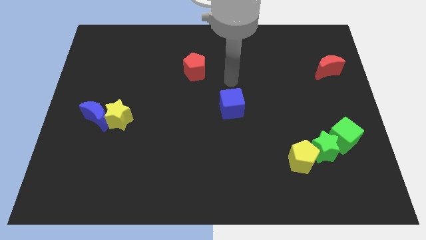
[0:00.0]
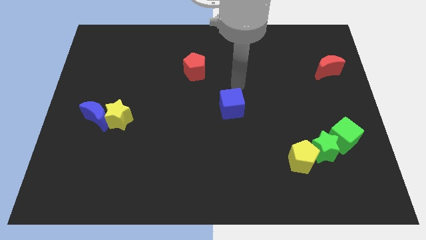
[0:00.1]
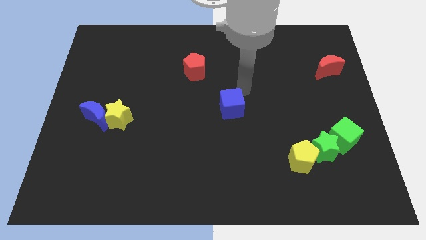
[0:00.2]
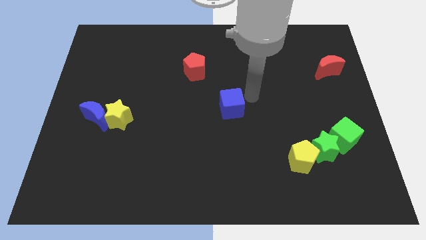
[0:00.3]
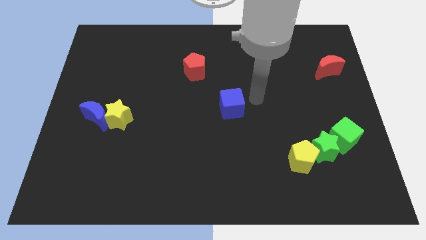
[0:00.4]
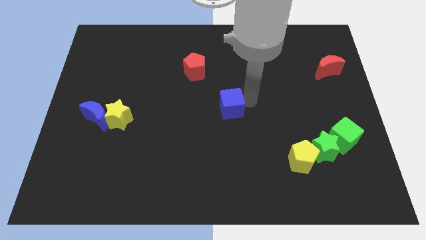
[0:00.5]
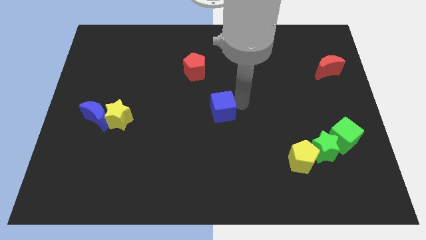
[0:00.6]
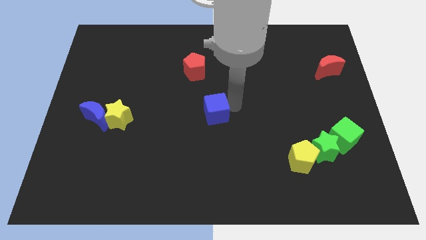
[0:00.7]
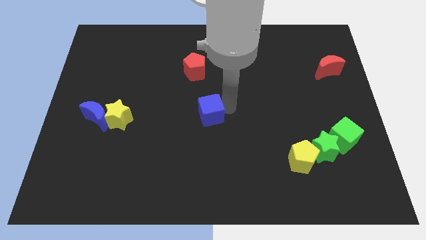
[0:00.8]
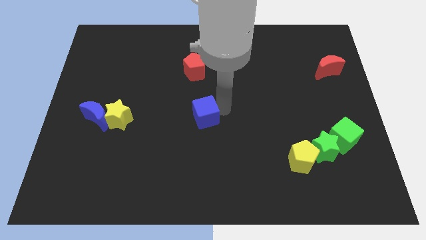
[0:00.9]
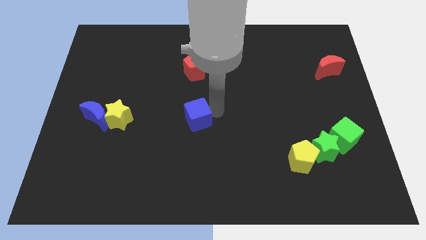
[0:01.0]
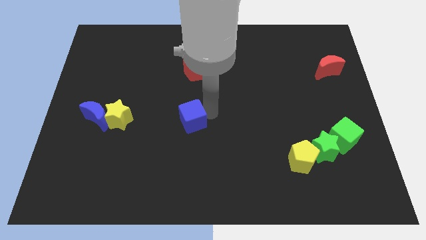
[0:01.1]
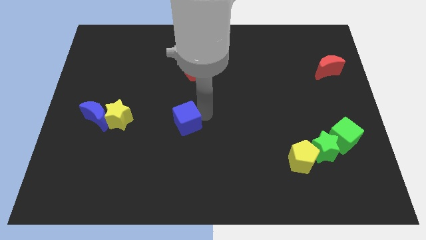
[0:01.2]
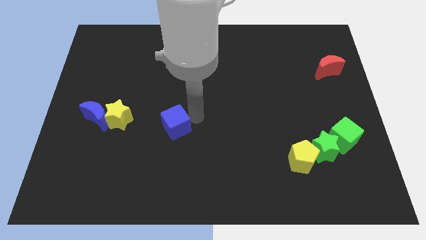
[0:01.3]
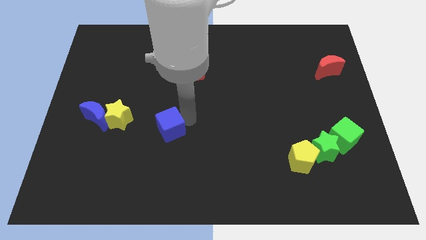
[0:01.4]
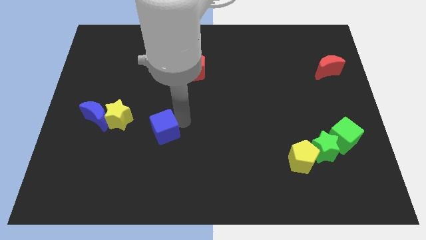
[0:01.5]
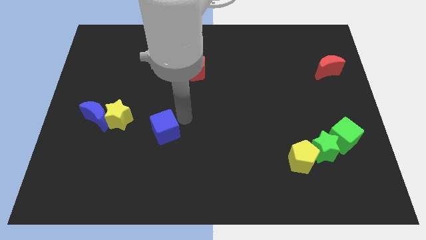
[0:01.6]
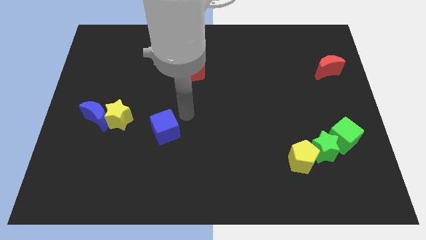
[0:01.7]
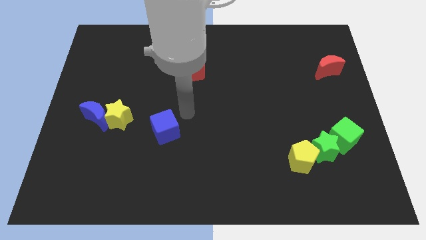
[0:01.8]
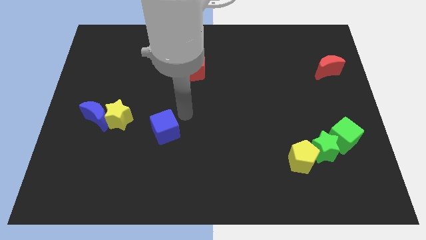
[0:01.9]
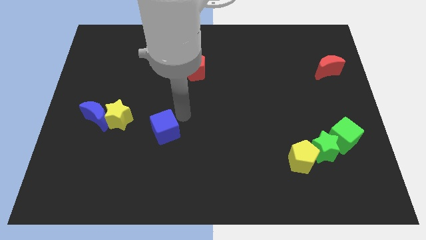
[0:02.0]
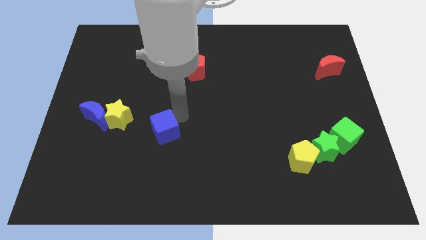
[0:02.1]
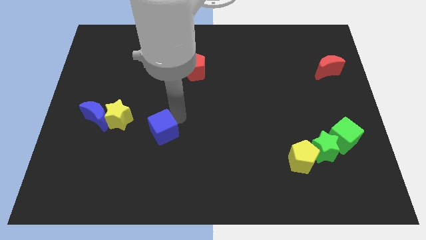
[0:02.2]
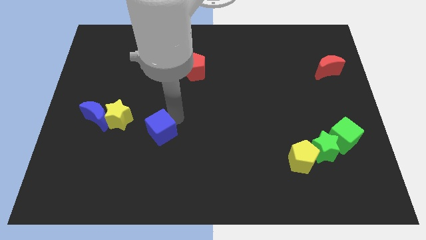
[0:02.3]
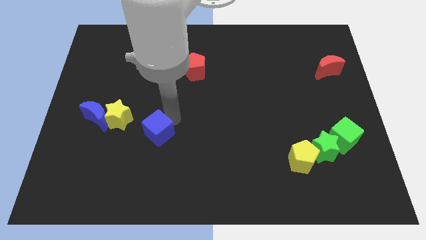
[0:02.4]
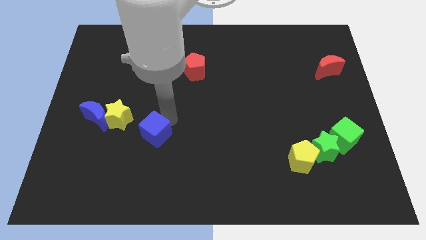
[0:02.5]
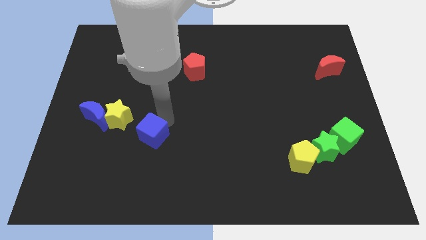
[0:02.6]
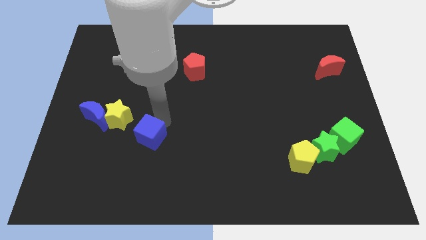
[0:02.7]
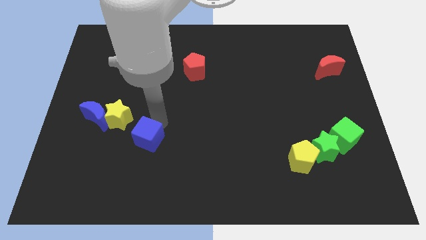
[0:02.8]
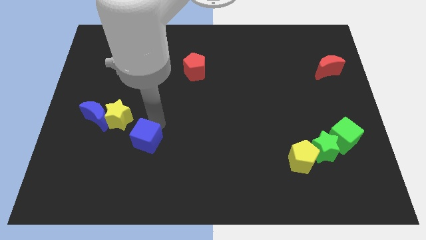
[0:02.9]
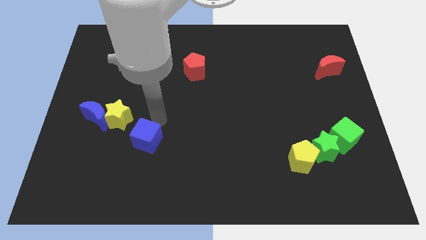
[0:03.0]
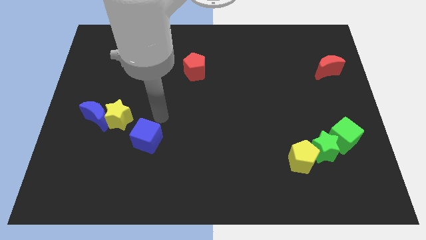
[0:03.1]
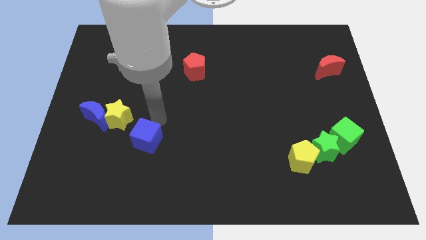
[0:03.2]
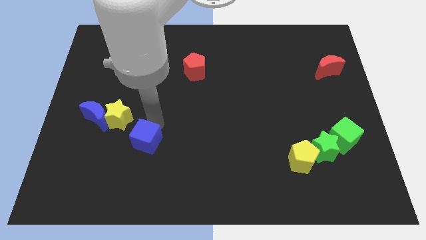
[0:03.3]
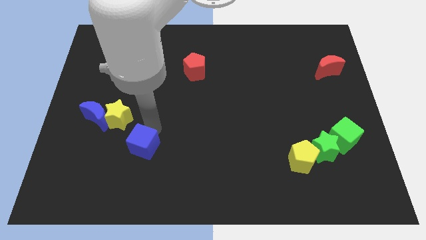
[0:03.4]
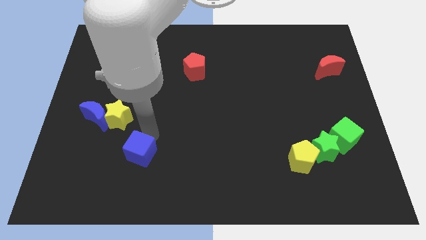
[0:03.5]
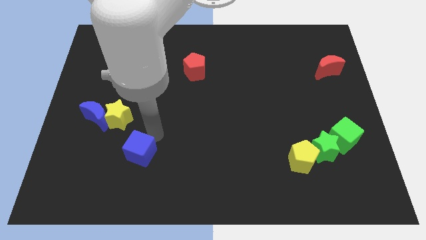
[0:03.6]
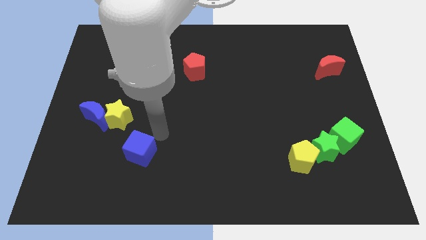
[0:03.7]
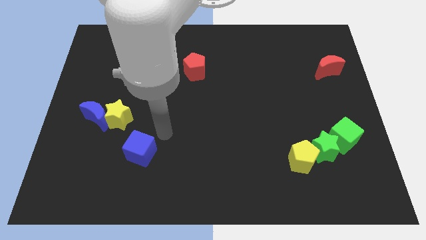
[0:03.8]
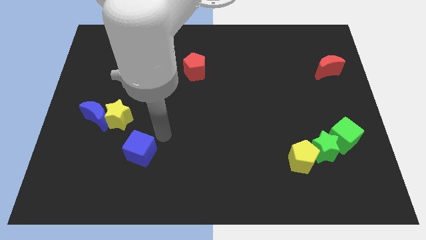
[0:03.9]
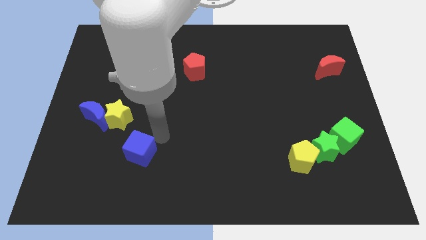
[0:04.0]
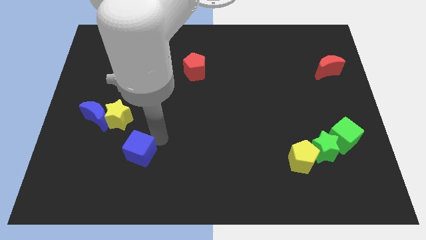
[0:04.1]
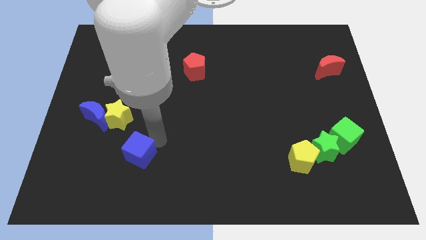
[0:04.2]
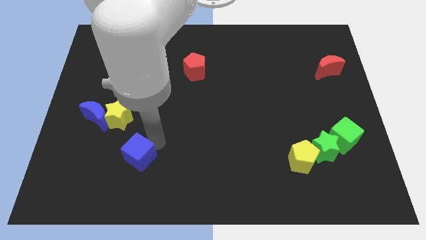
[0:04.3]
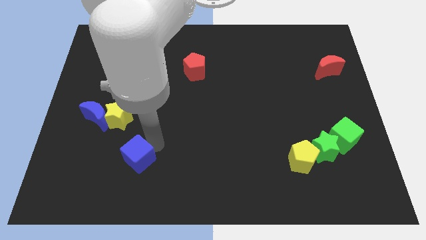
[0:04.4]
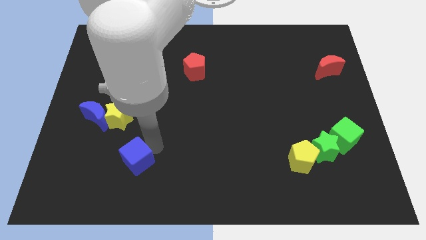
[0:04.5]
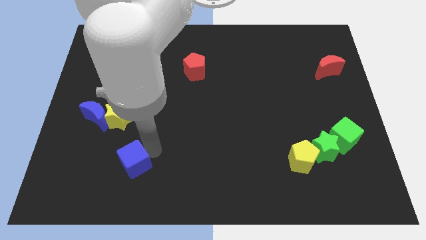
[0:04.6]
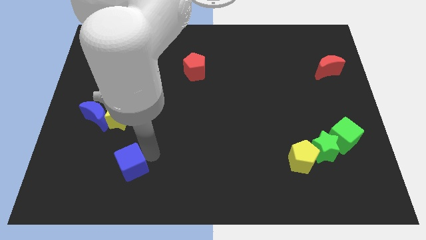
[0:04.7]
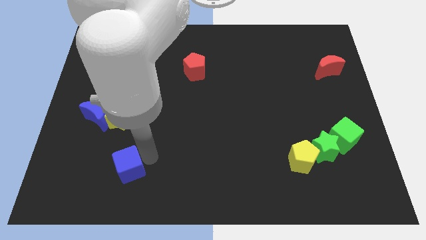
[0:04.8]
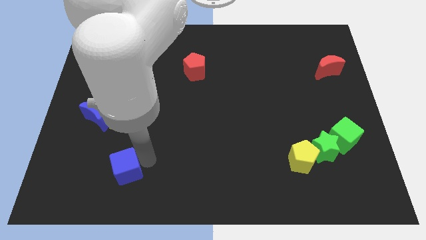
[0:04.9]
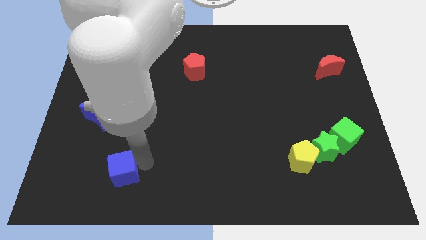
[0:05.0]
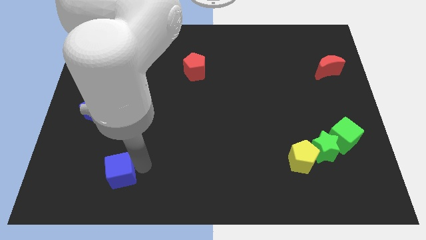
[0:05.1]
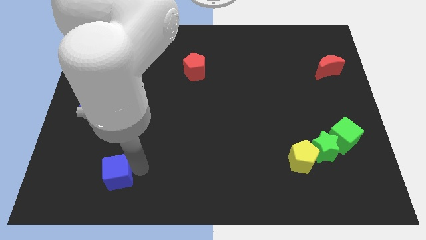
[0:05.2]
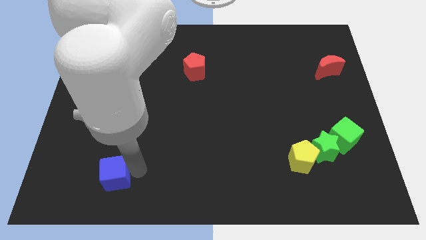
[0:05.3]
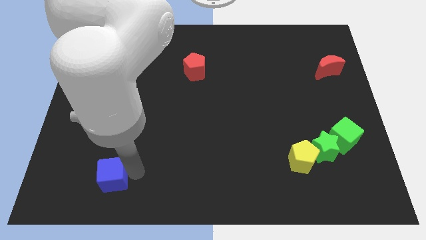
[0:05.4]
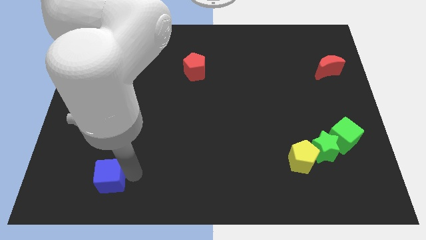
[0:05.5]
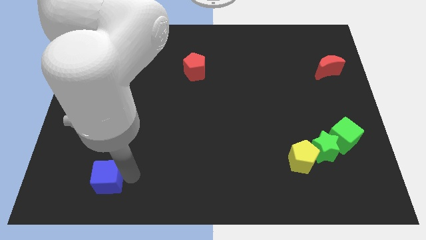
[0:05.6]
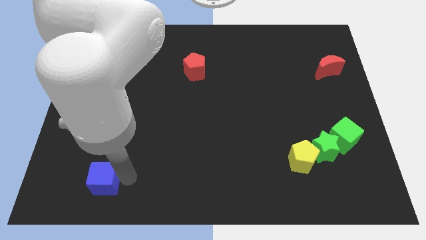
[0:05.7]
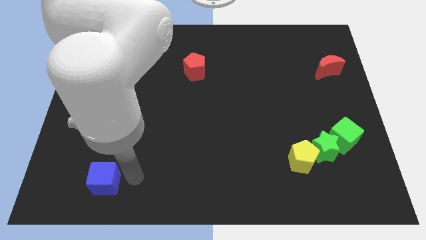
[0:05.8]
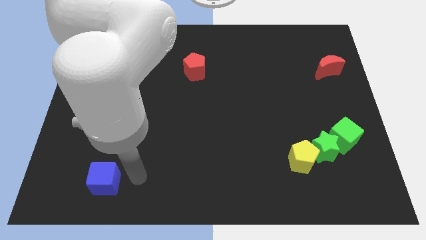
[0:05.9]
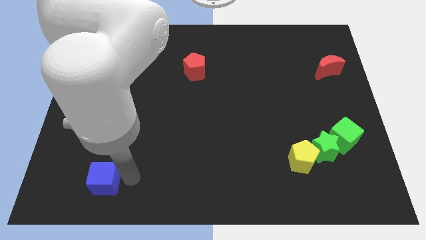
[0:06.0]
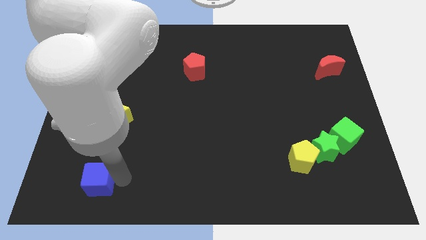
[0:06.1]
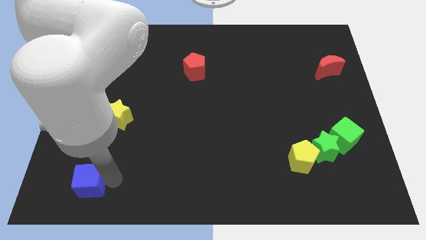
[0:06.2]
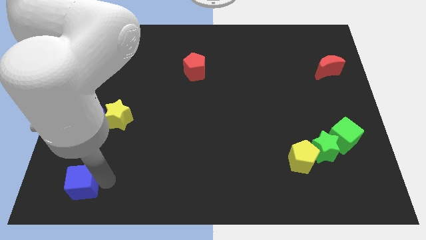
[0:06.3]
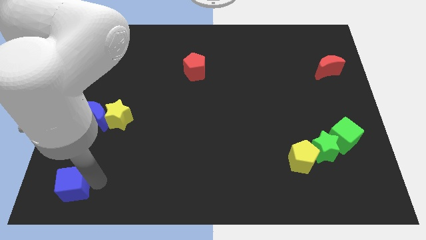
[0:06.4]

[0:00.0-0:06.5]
put the blue cube to the bottom left of the board
